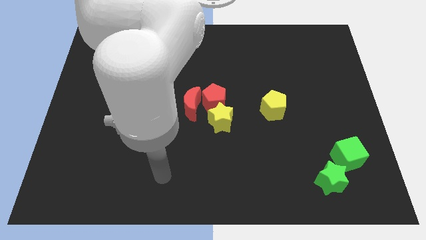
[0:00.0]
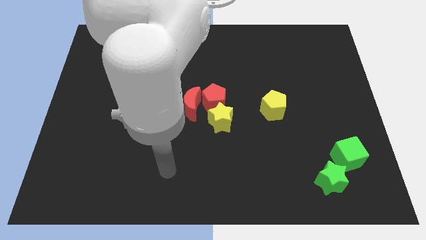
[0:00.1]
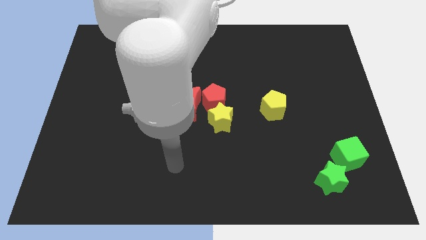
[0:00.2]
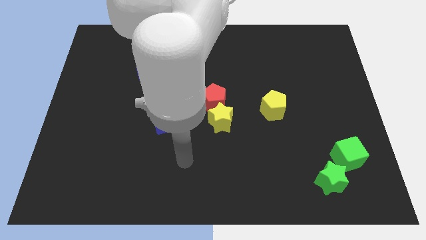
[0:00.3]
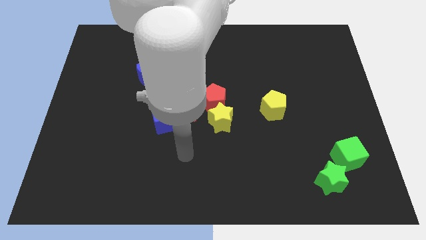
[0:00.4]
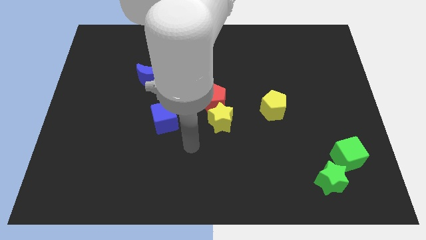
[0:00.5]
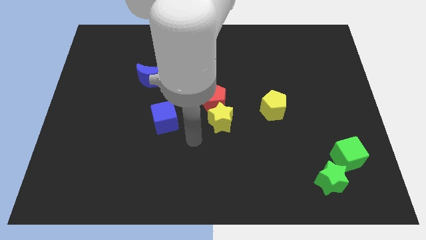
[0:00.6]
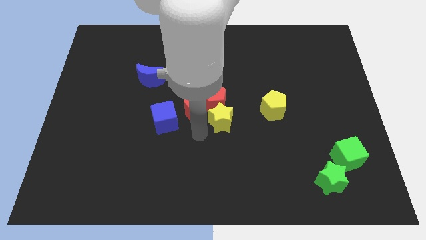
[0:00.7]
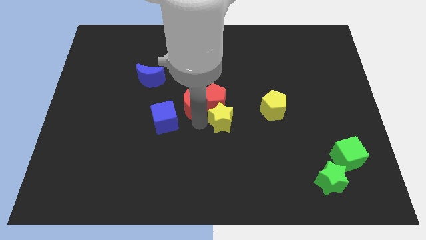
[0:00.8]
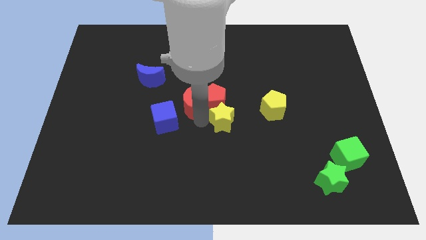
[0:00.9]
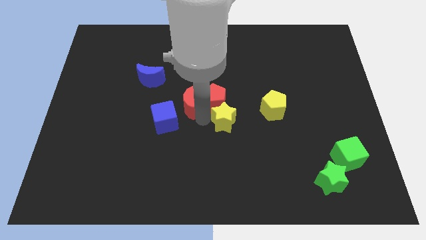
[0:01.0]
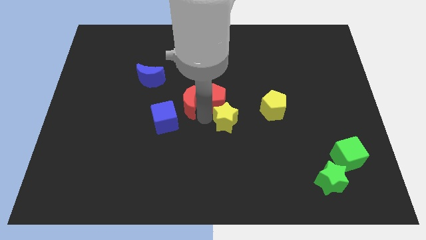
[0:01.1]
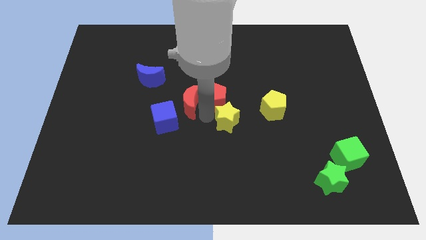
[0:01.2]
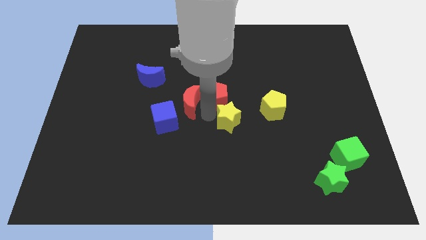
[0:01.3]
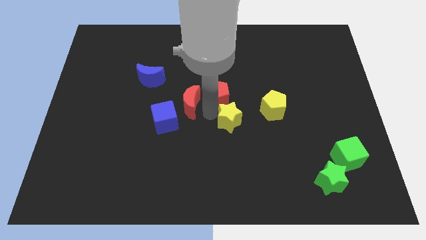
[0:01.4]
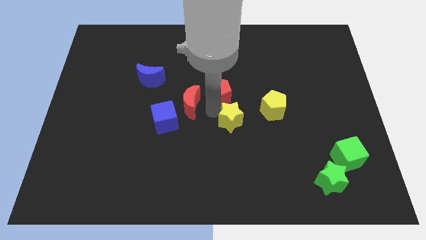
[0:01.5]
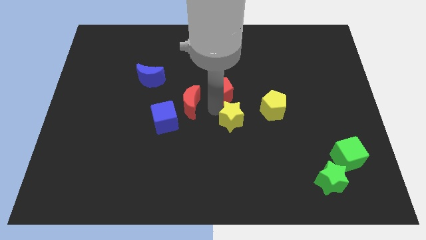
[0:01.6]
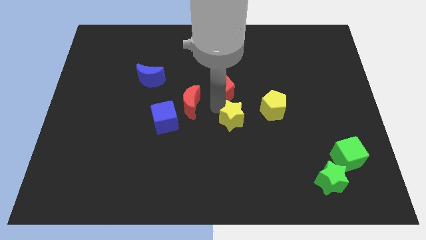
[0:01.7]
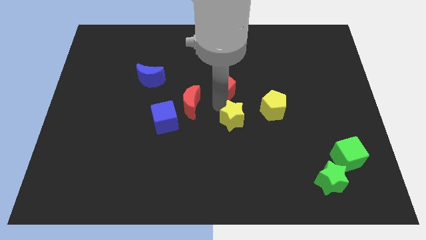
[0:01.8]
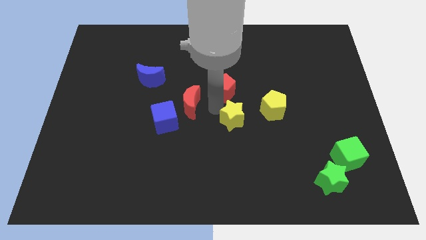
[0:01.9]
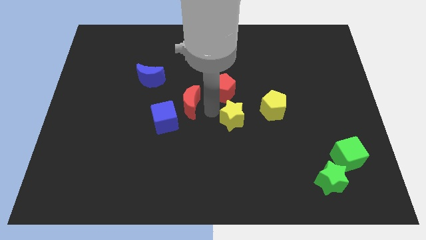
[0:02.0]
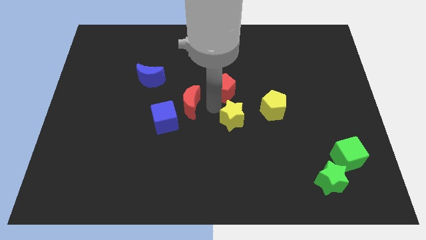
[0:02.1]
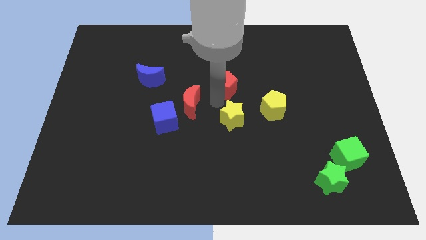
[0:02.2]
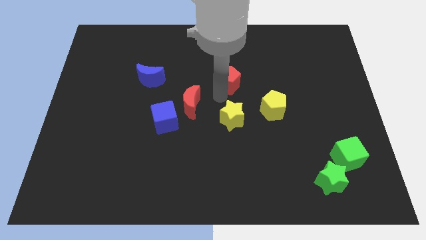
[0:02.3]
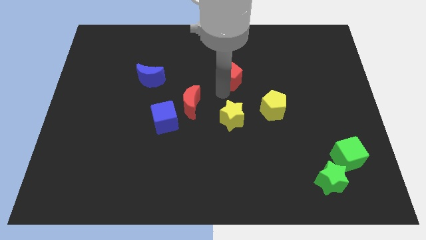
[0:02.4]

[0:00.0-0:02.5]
separate the red pentagon from the red moon and yellow star

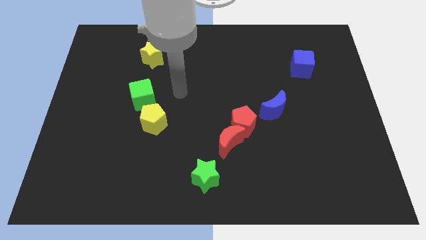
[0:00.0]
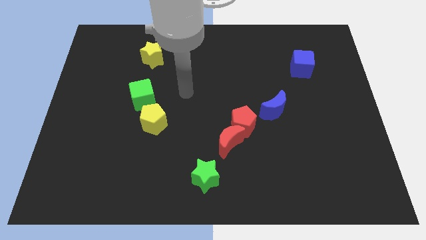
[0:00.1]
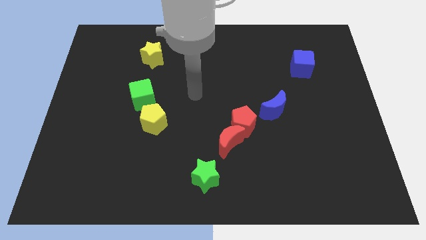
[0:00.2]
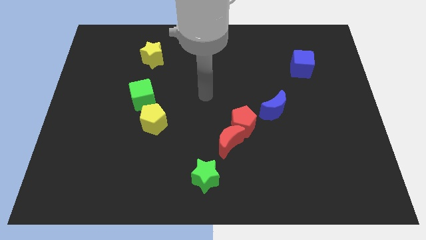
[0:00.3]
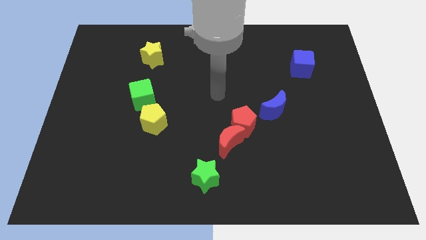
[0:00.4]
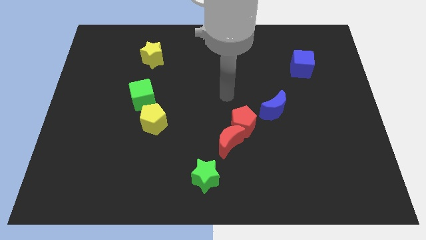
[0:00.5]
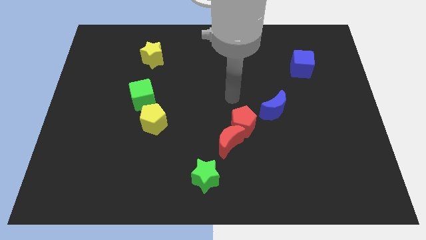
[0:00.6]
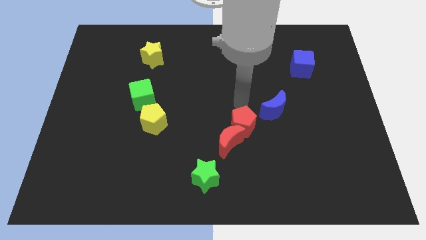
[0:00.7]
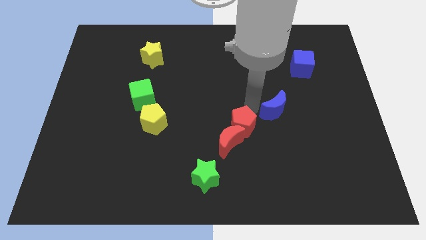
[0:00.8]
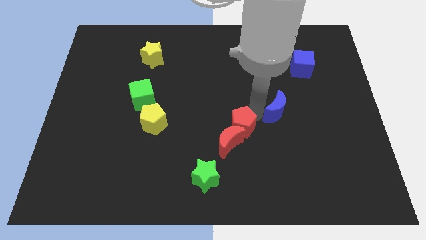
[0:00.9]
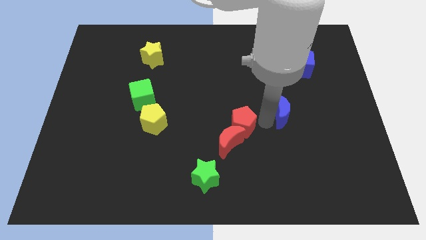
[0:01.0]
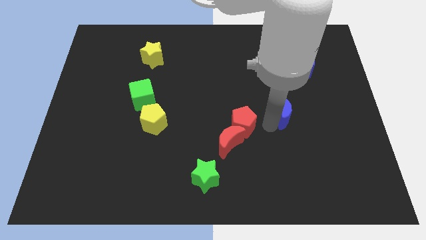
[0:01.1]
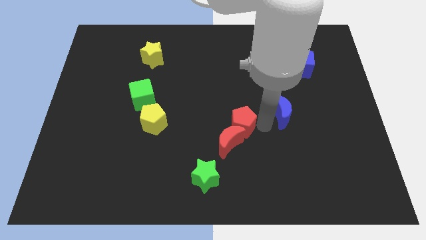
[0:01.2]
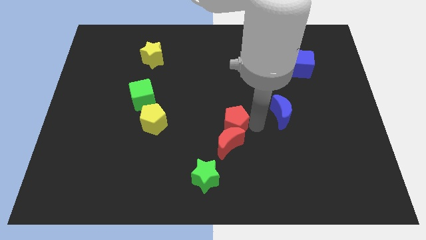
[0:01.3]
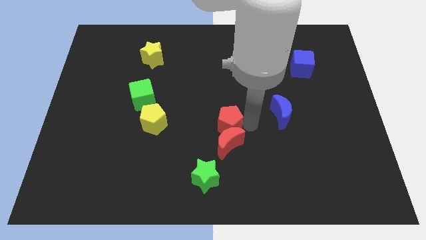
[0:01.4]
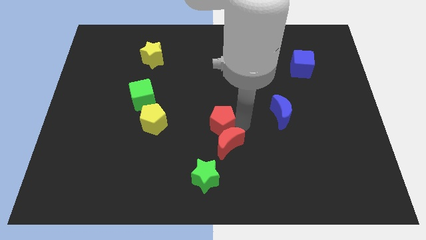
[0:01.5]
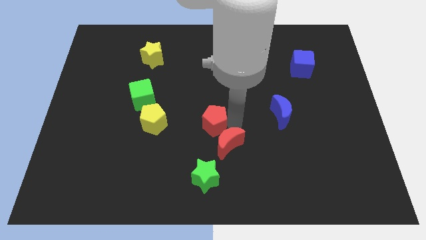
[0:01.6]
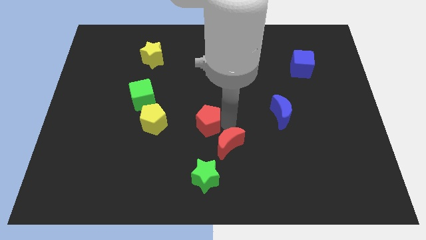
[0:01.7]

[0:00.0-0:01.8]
pull the red pentagon apart from the red moon and blue moon

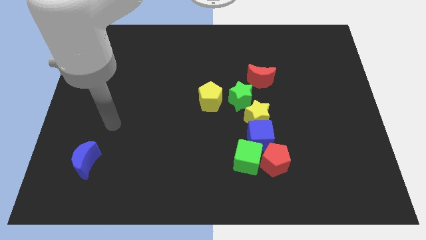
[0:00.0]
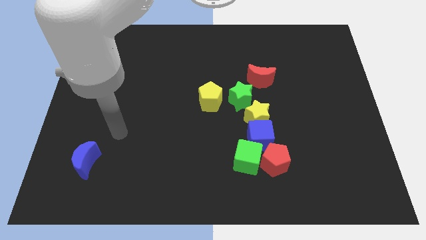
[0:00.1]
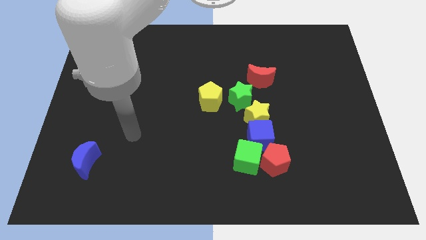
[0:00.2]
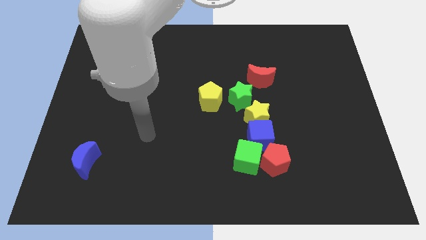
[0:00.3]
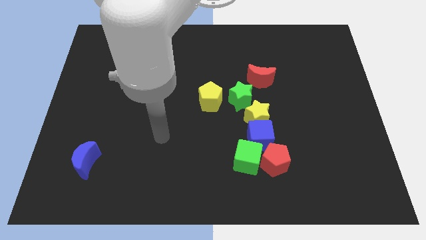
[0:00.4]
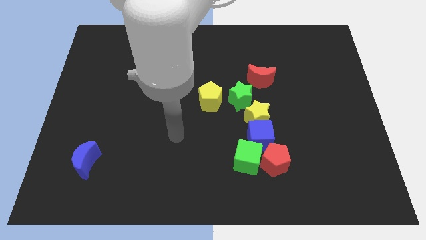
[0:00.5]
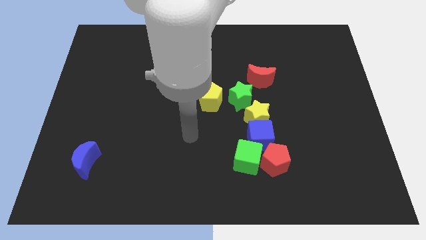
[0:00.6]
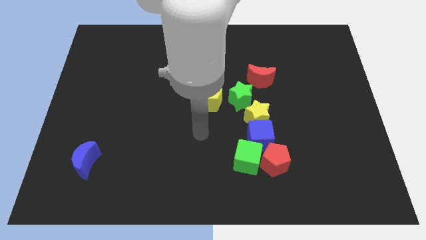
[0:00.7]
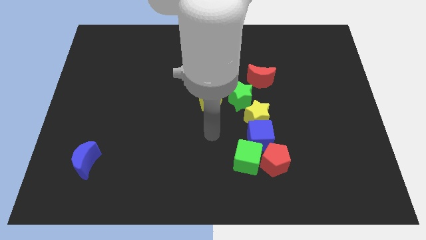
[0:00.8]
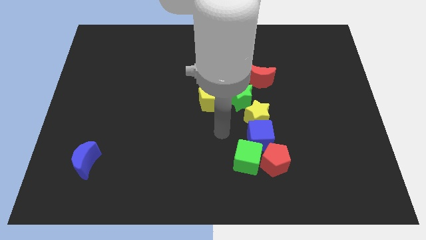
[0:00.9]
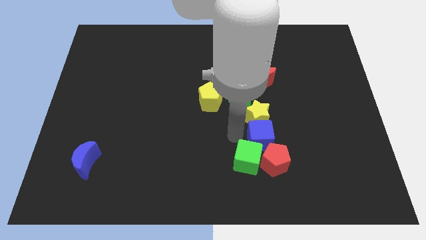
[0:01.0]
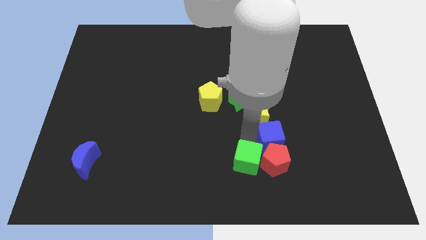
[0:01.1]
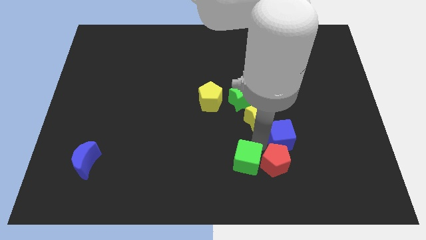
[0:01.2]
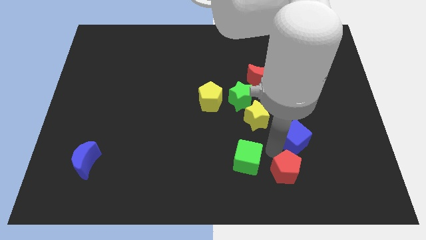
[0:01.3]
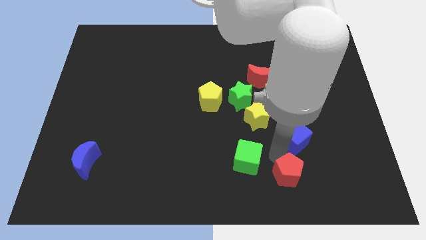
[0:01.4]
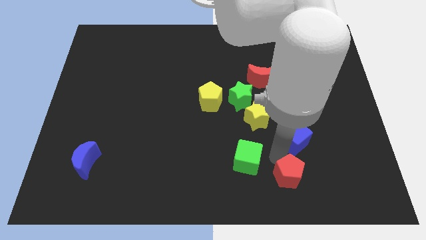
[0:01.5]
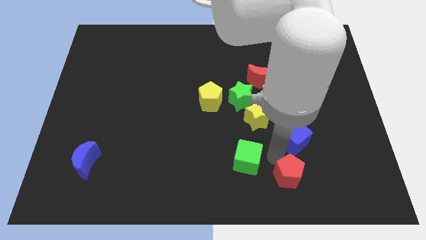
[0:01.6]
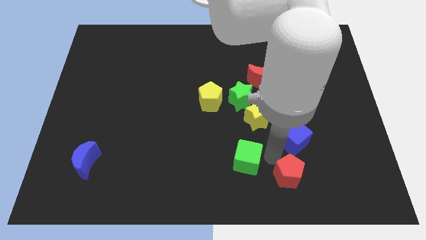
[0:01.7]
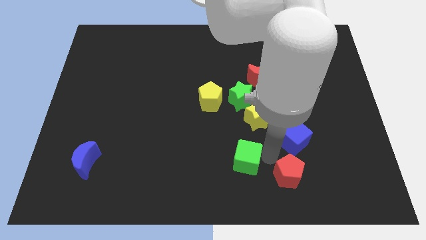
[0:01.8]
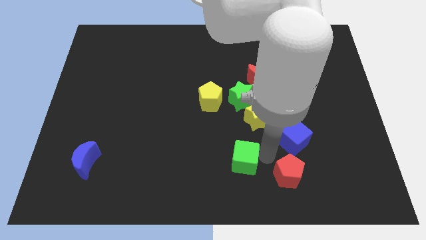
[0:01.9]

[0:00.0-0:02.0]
pull the green cube apart from the red pentagon and blue cube

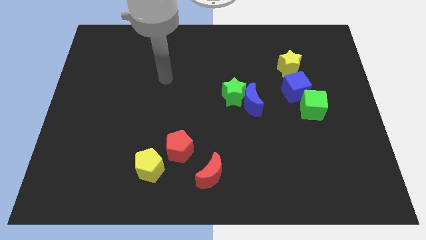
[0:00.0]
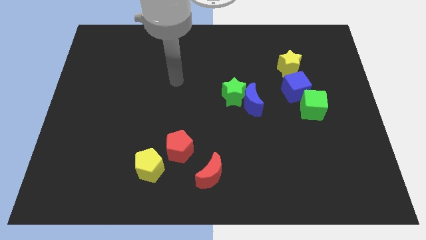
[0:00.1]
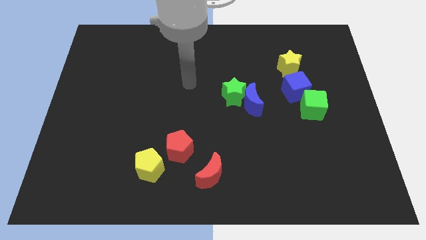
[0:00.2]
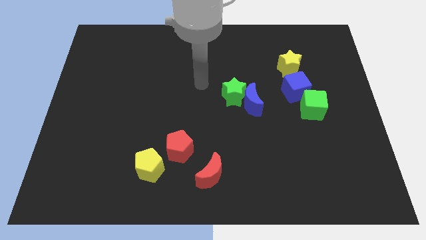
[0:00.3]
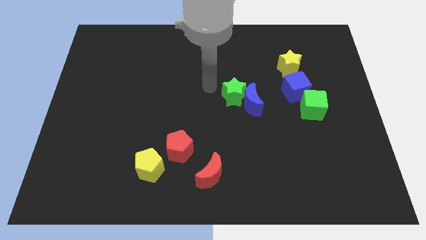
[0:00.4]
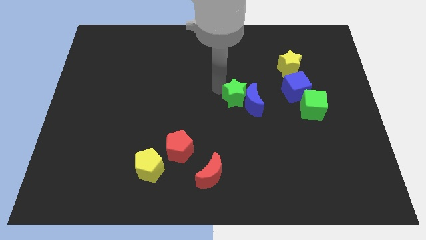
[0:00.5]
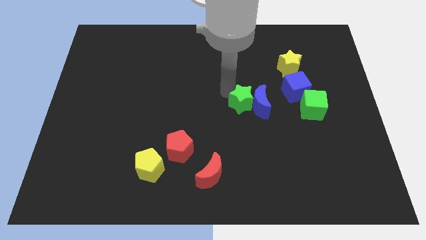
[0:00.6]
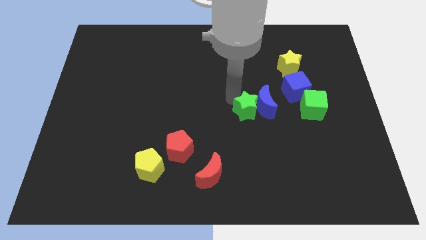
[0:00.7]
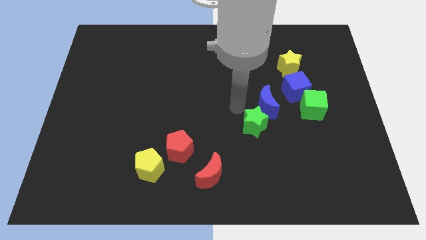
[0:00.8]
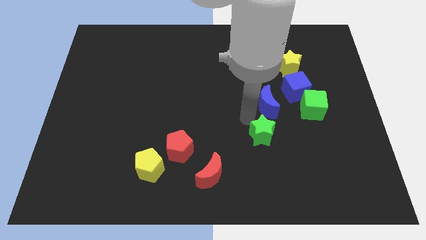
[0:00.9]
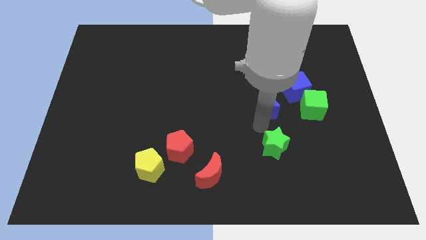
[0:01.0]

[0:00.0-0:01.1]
separate the blue moon from the green star

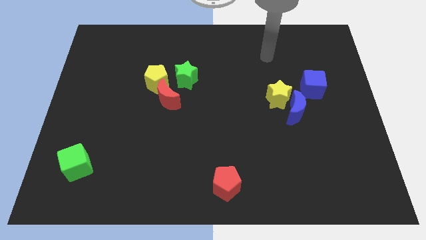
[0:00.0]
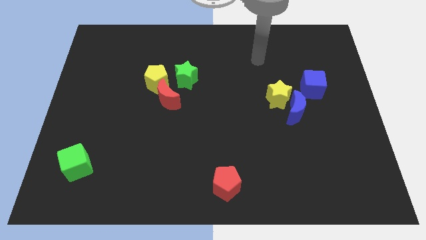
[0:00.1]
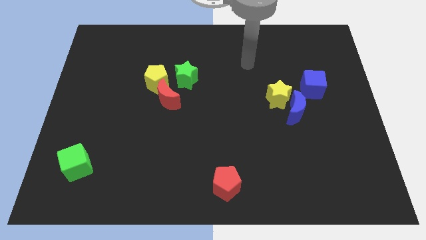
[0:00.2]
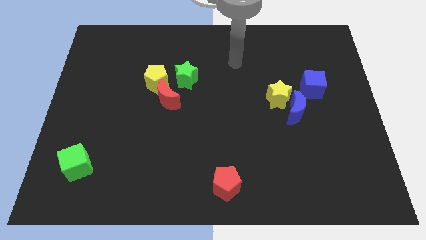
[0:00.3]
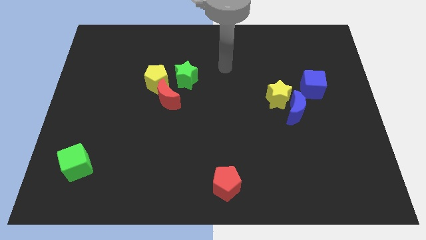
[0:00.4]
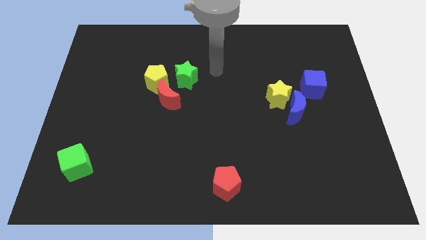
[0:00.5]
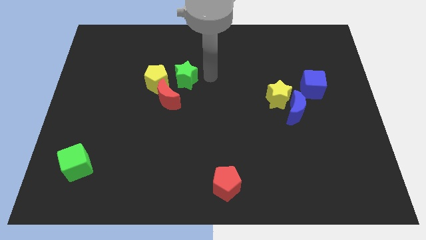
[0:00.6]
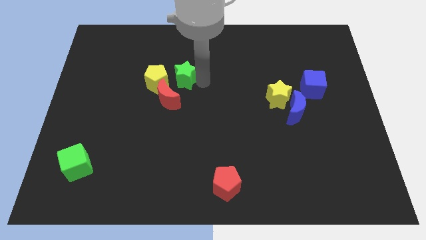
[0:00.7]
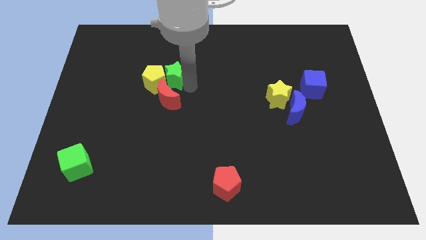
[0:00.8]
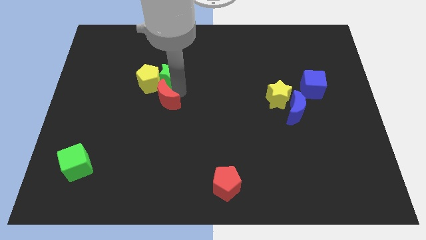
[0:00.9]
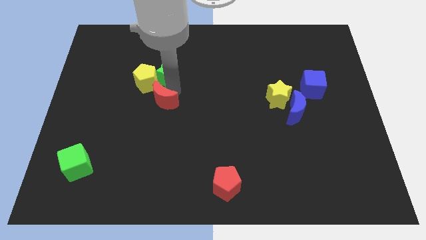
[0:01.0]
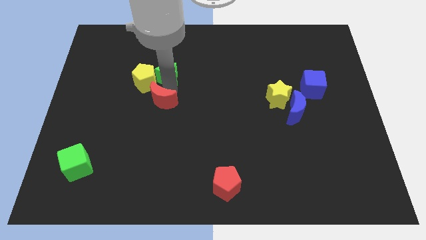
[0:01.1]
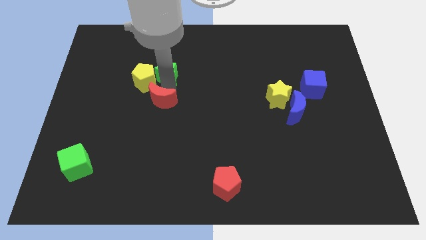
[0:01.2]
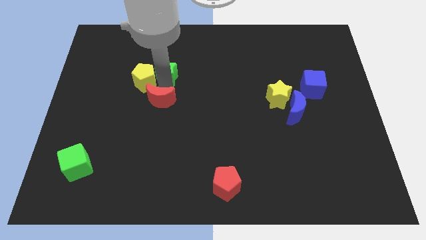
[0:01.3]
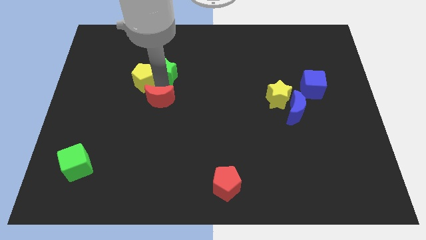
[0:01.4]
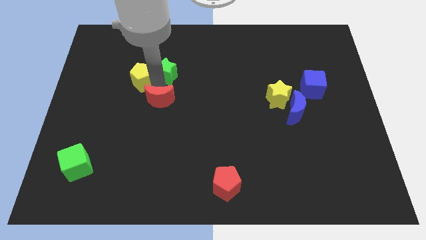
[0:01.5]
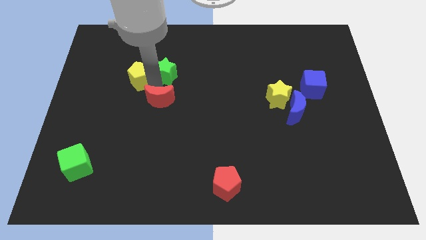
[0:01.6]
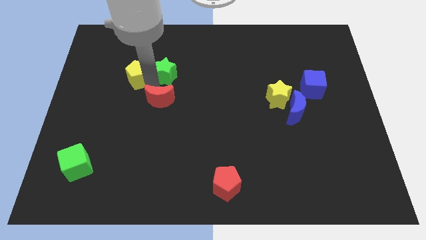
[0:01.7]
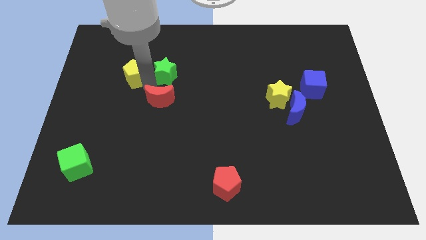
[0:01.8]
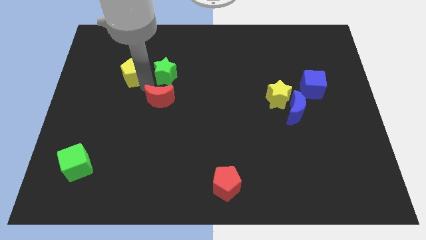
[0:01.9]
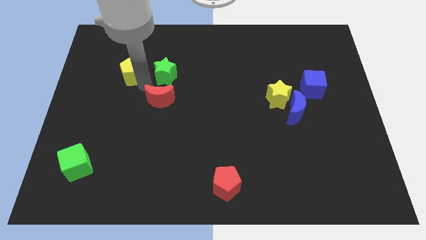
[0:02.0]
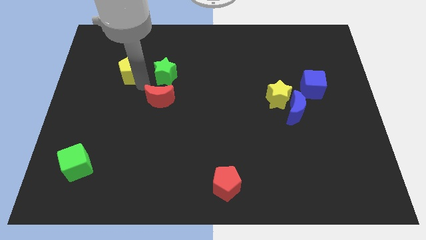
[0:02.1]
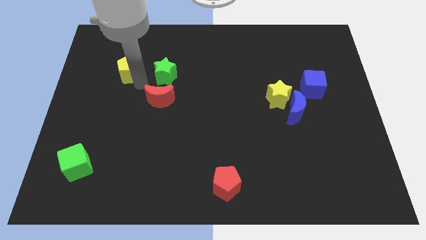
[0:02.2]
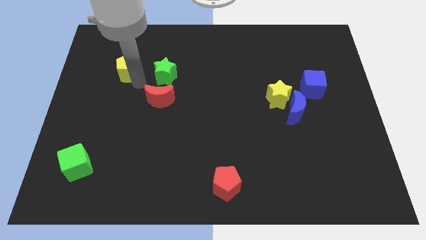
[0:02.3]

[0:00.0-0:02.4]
separate the yellow pentagon from the red moon and green star
